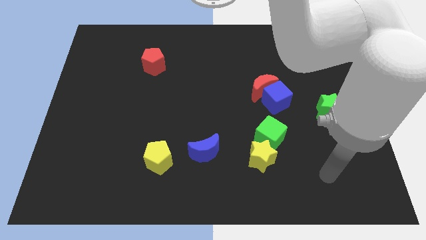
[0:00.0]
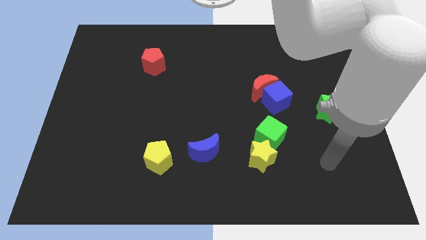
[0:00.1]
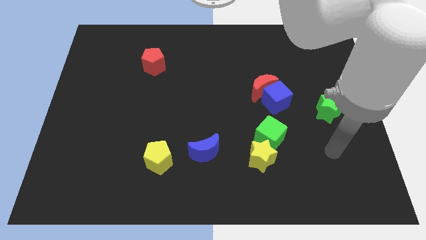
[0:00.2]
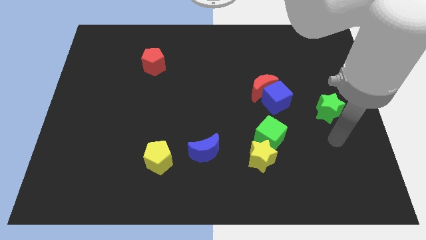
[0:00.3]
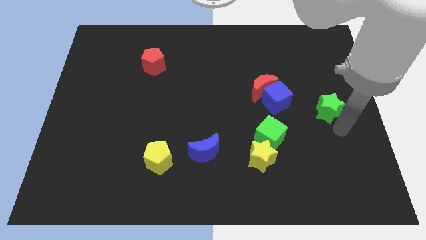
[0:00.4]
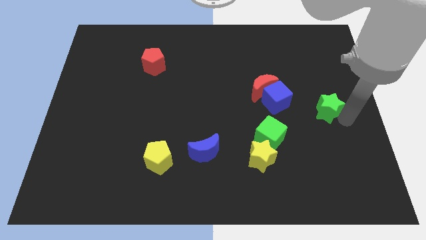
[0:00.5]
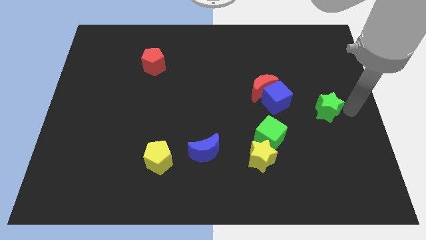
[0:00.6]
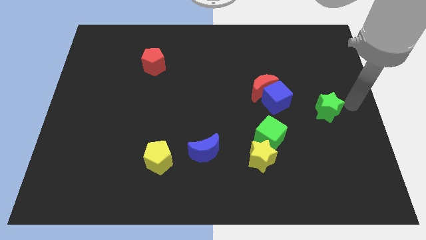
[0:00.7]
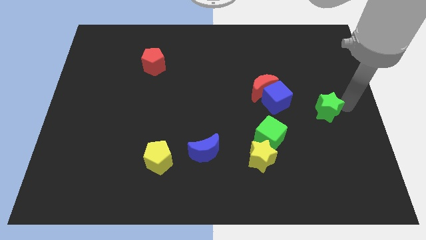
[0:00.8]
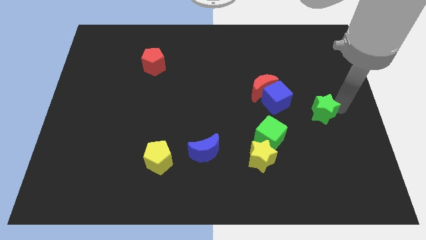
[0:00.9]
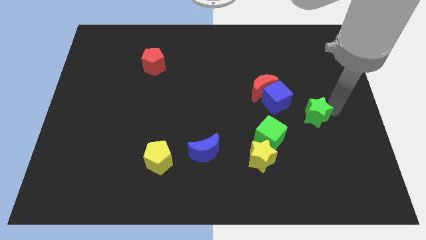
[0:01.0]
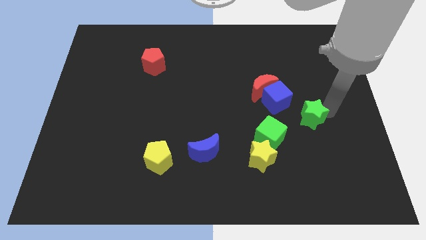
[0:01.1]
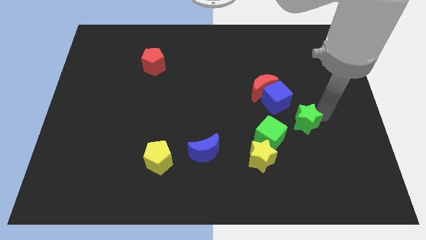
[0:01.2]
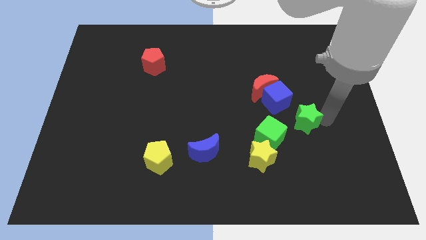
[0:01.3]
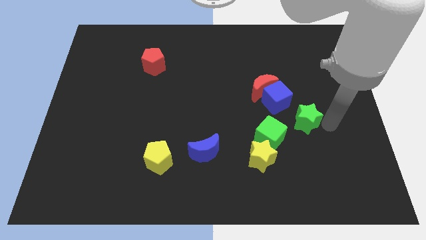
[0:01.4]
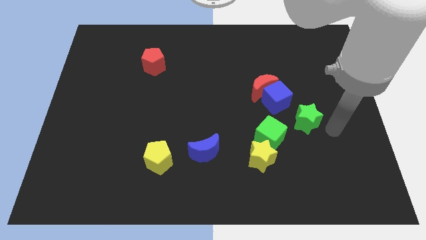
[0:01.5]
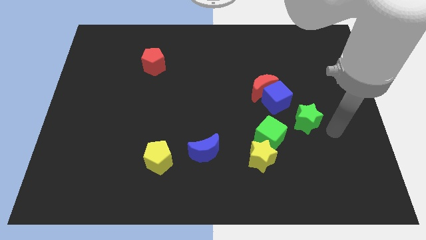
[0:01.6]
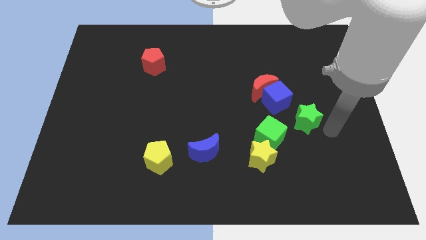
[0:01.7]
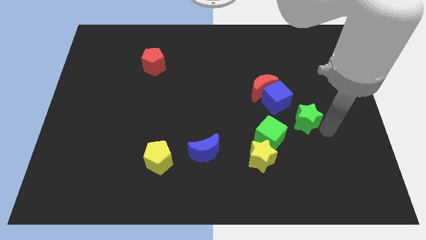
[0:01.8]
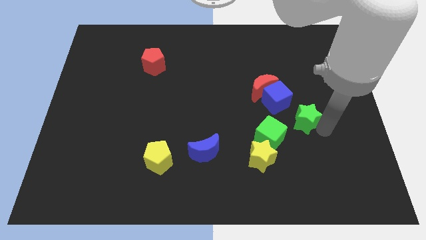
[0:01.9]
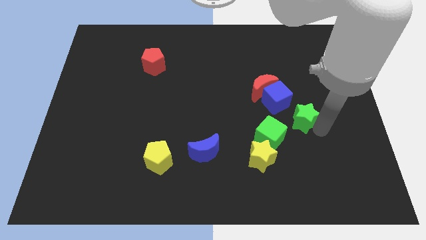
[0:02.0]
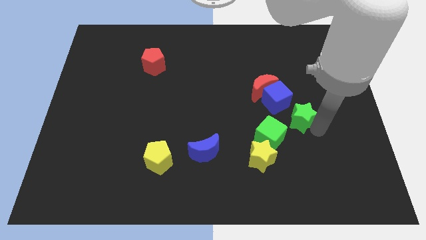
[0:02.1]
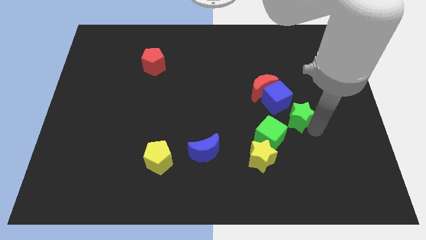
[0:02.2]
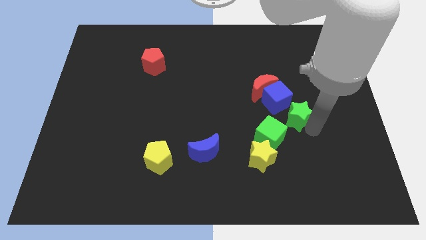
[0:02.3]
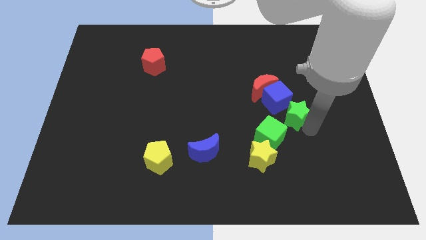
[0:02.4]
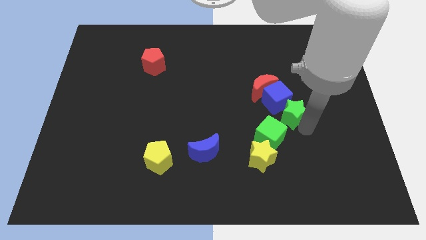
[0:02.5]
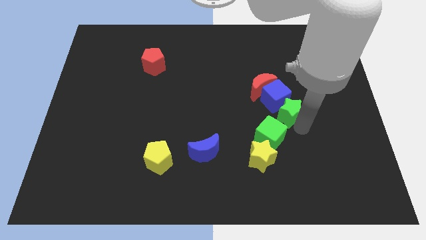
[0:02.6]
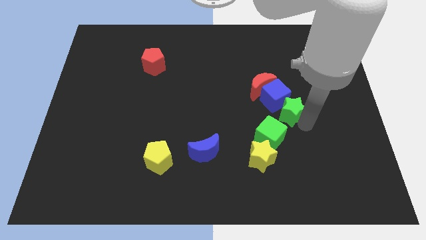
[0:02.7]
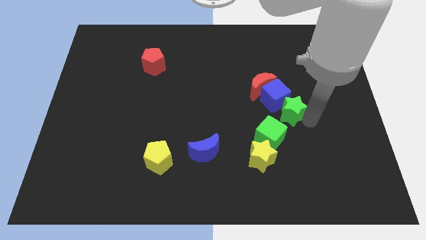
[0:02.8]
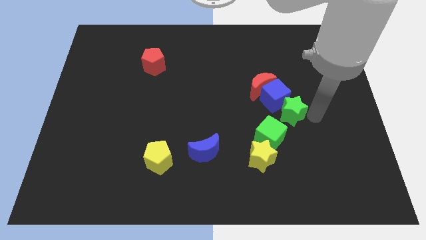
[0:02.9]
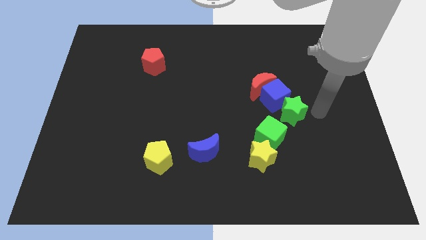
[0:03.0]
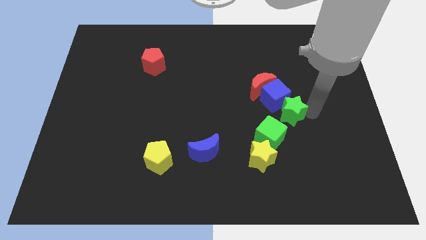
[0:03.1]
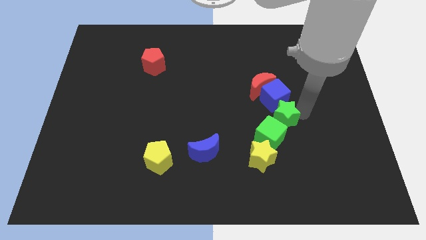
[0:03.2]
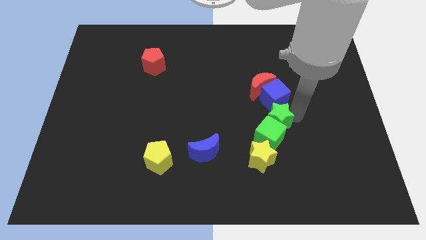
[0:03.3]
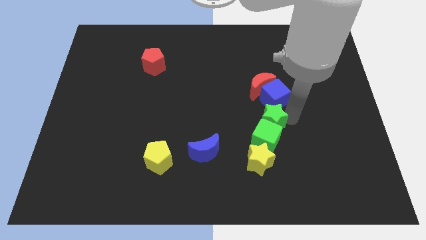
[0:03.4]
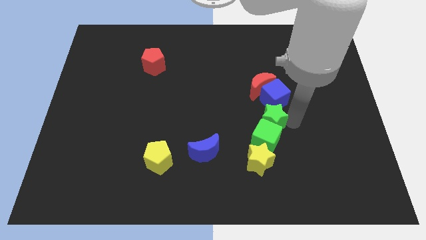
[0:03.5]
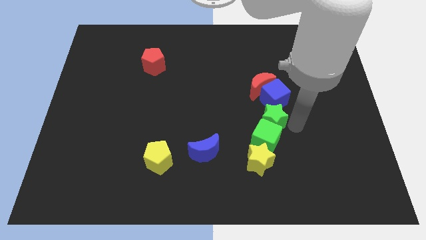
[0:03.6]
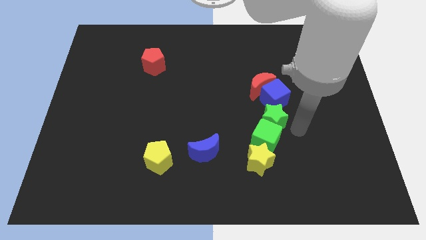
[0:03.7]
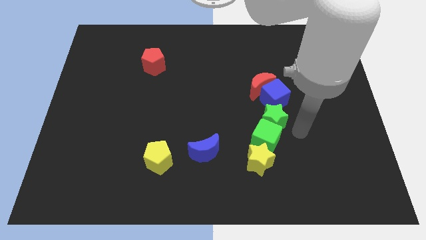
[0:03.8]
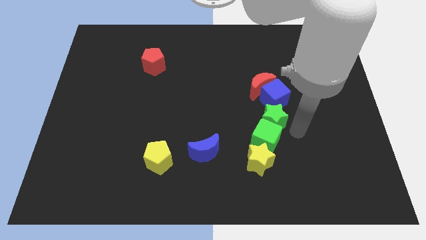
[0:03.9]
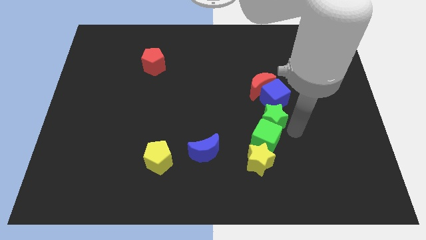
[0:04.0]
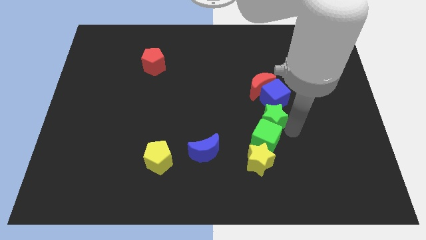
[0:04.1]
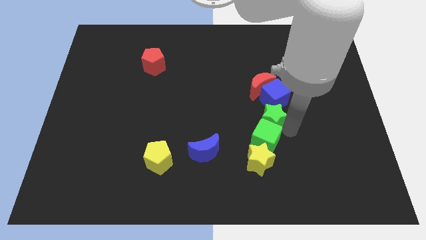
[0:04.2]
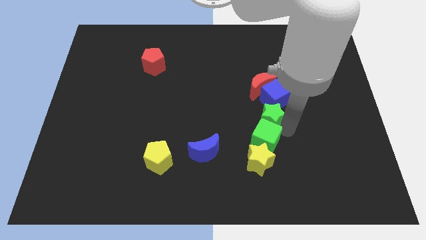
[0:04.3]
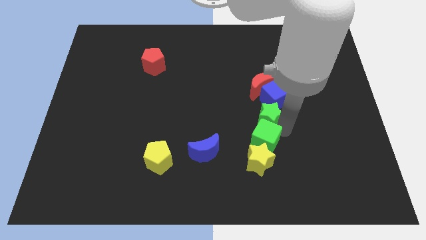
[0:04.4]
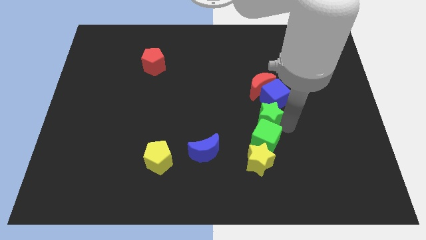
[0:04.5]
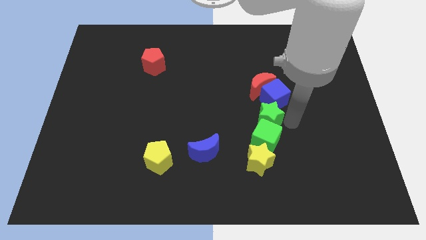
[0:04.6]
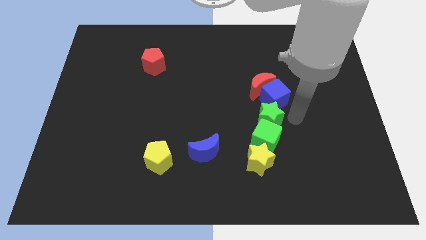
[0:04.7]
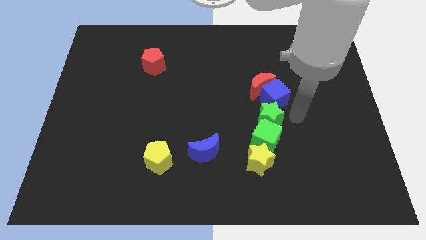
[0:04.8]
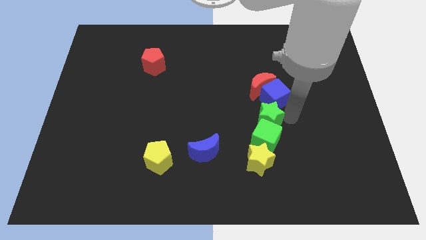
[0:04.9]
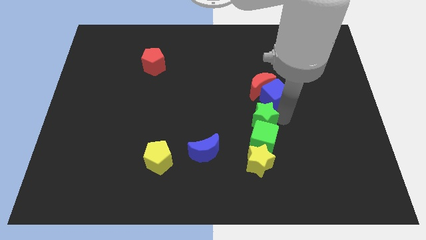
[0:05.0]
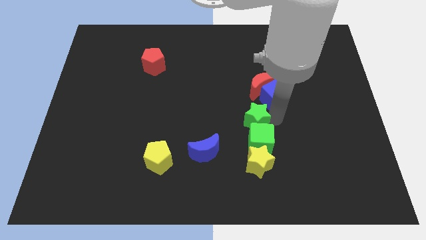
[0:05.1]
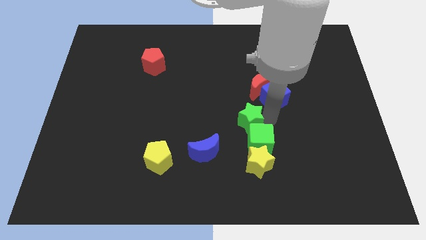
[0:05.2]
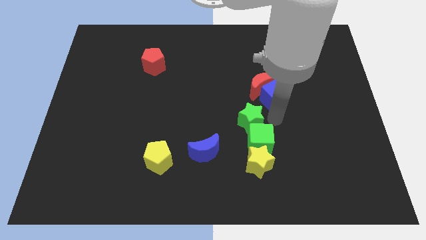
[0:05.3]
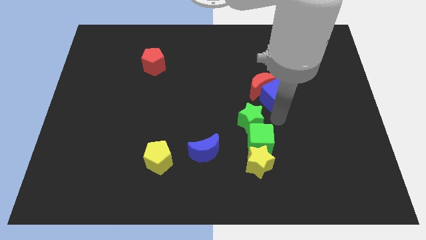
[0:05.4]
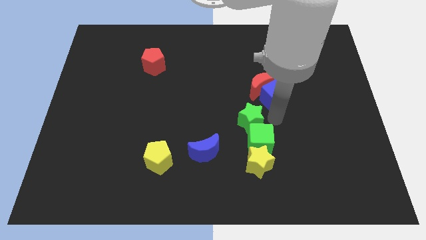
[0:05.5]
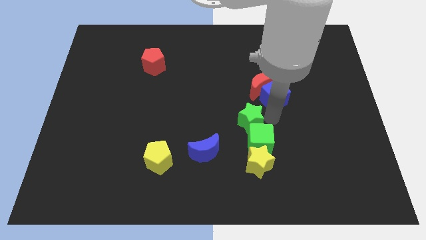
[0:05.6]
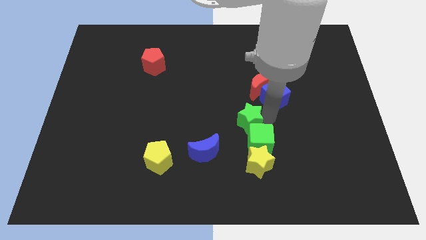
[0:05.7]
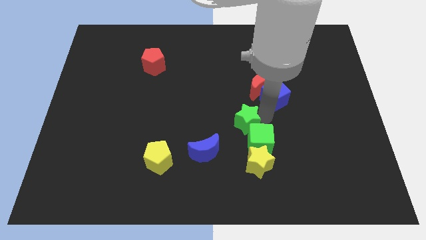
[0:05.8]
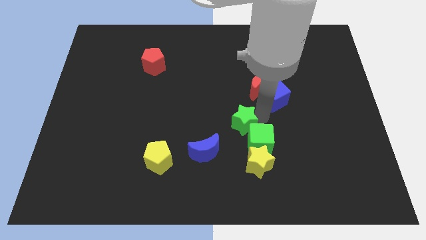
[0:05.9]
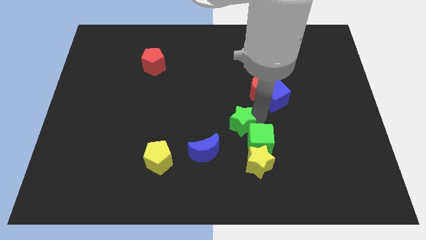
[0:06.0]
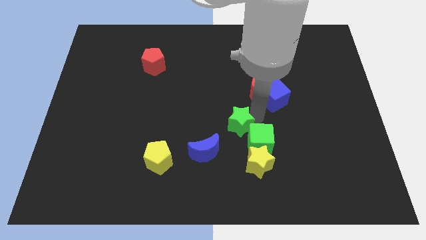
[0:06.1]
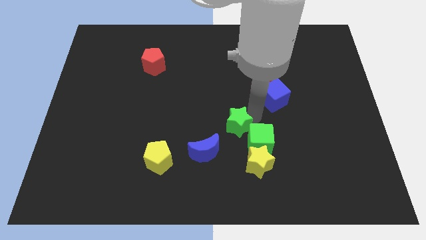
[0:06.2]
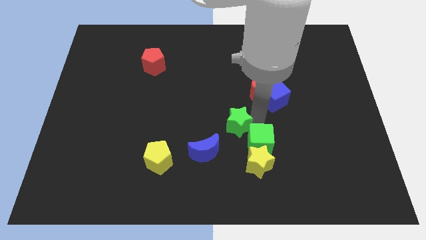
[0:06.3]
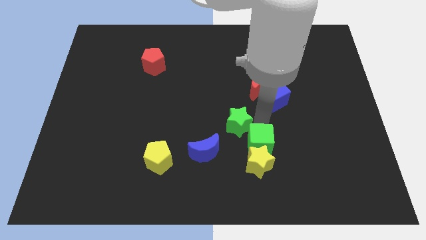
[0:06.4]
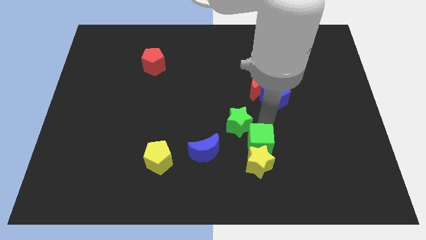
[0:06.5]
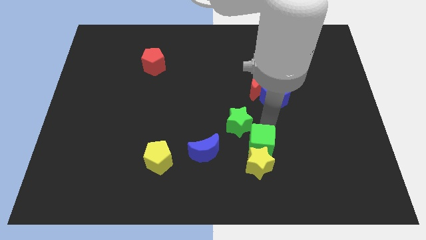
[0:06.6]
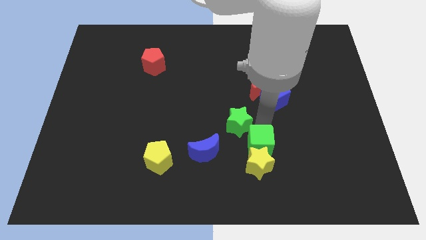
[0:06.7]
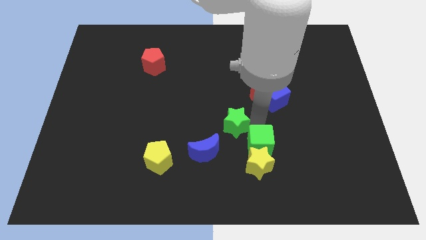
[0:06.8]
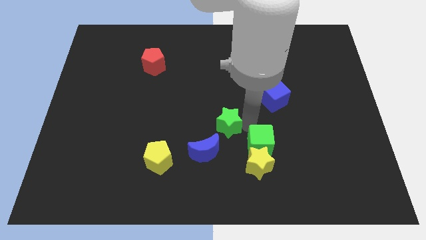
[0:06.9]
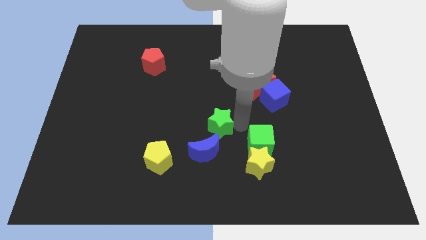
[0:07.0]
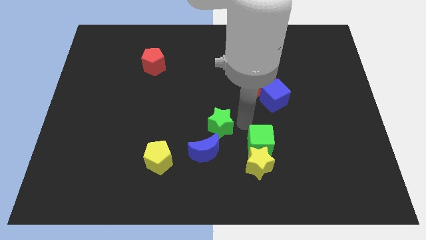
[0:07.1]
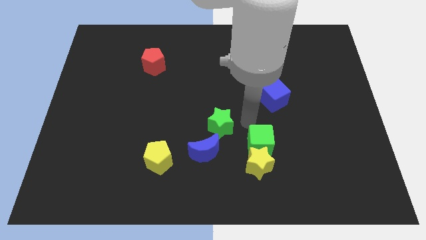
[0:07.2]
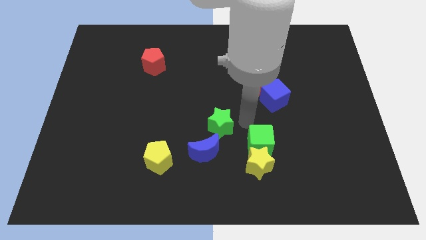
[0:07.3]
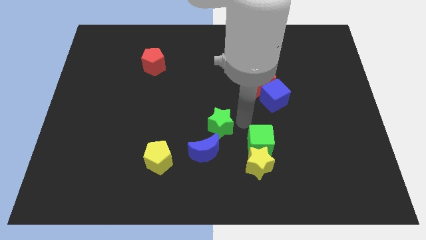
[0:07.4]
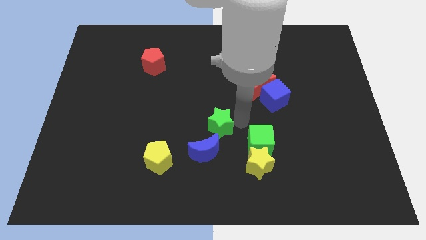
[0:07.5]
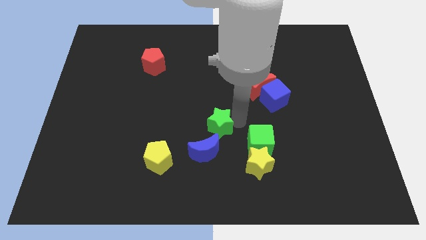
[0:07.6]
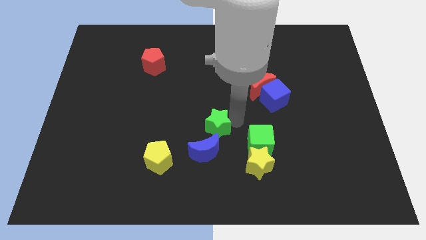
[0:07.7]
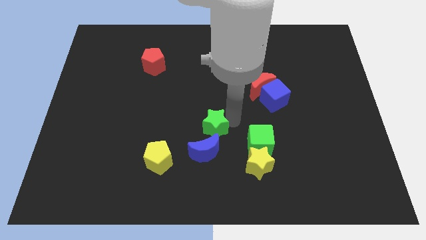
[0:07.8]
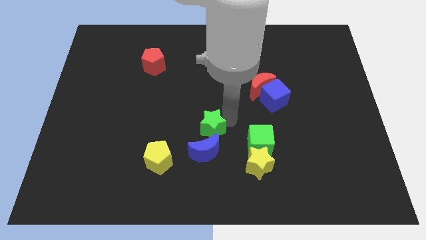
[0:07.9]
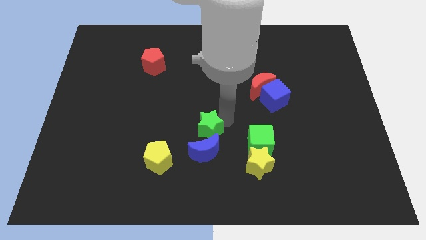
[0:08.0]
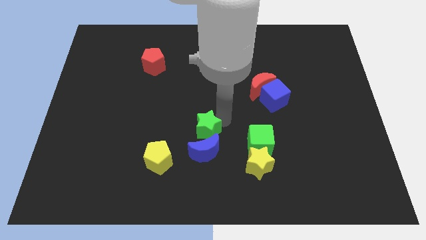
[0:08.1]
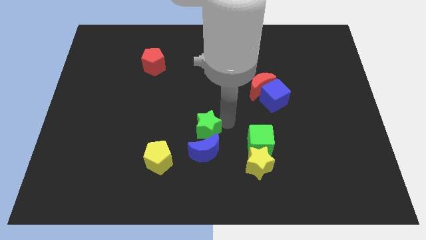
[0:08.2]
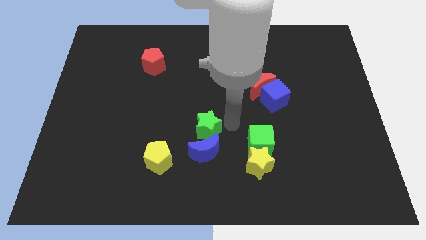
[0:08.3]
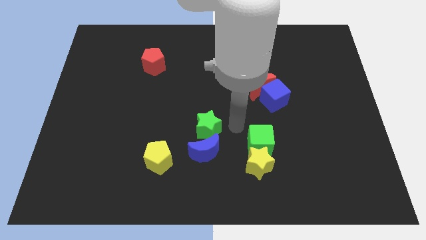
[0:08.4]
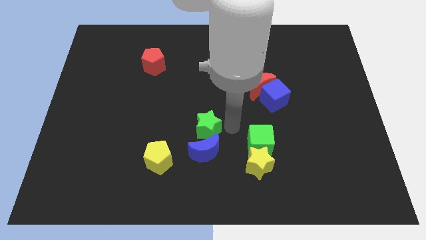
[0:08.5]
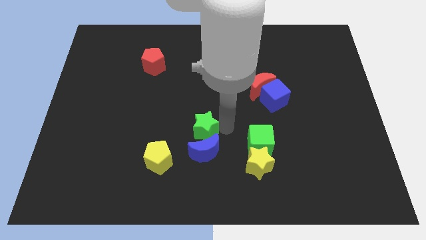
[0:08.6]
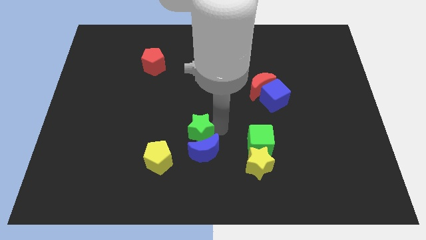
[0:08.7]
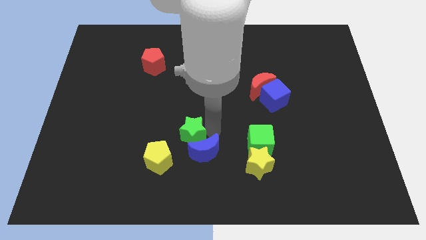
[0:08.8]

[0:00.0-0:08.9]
move the green star to the left of the blue moon
